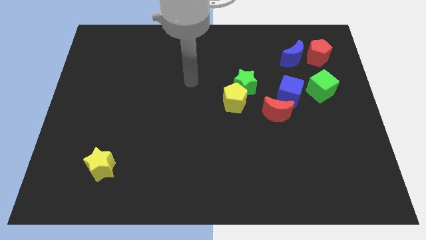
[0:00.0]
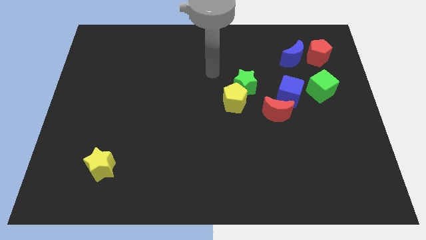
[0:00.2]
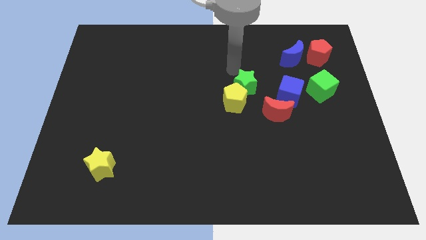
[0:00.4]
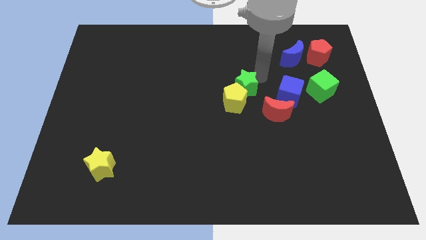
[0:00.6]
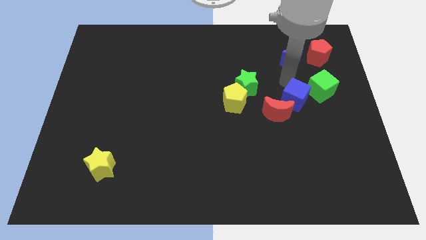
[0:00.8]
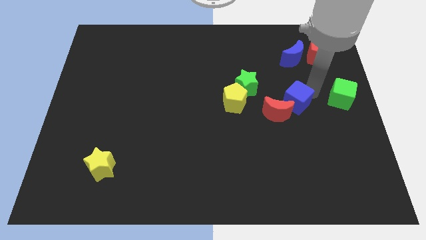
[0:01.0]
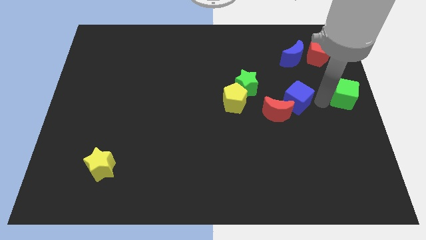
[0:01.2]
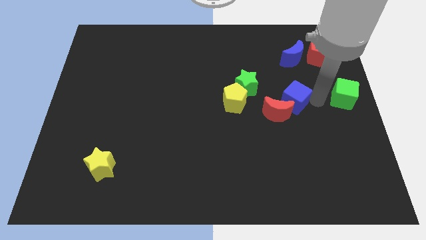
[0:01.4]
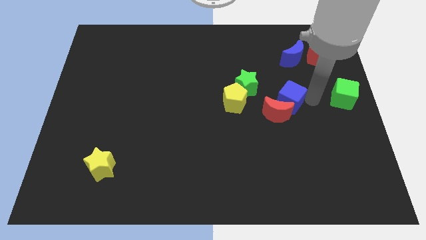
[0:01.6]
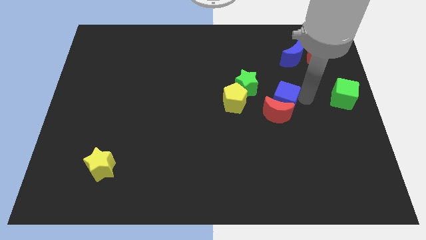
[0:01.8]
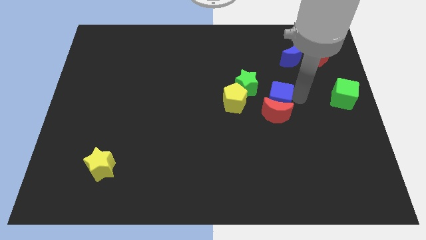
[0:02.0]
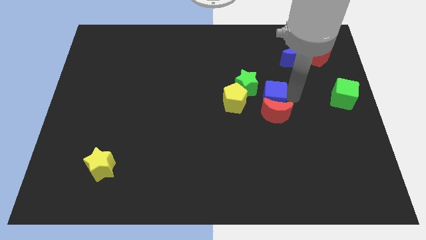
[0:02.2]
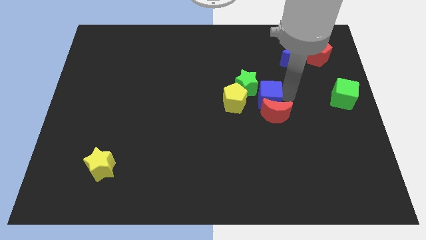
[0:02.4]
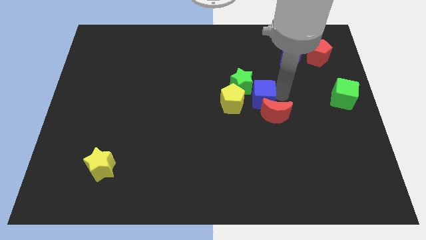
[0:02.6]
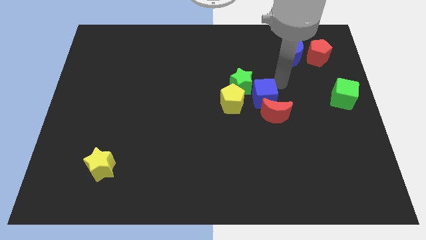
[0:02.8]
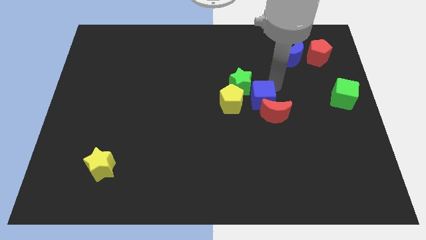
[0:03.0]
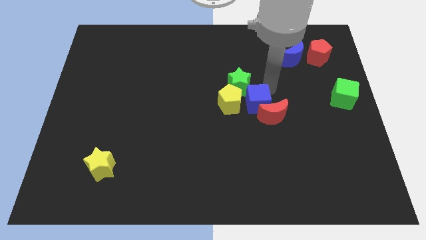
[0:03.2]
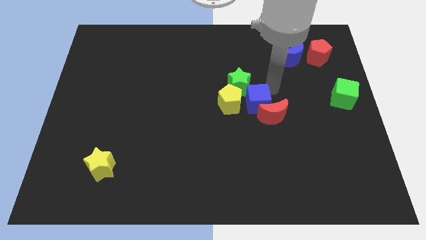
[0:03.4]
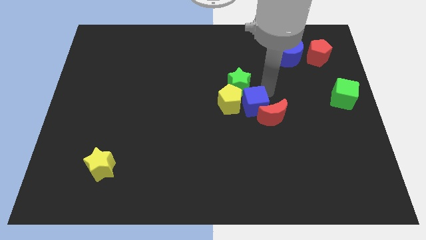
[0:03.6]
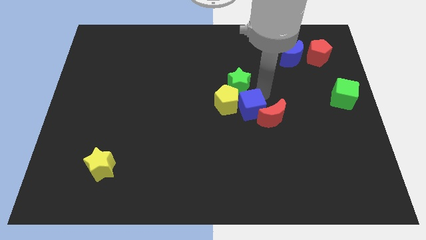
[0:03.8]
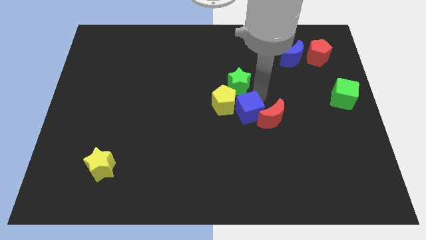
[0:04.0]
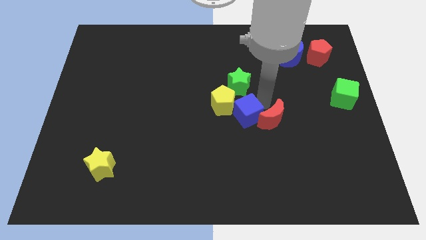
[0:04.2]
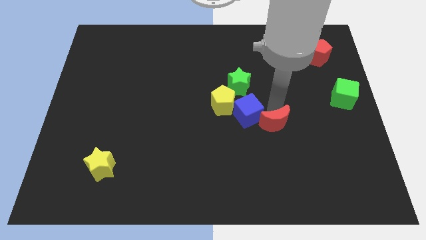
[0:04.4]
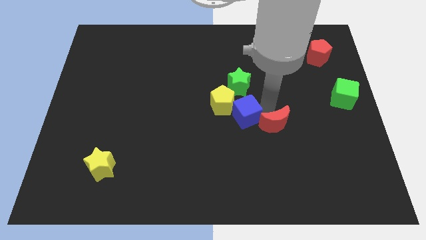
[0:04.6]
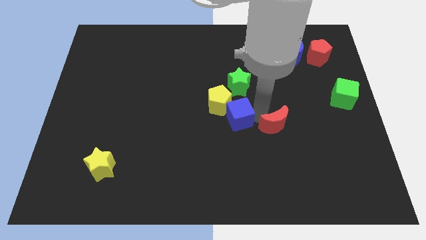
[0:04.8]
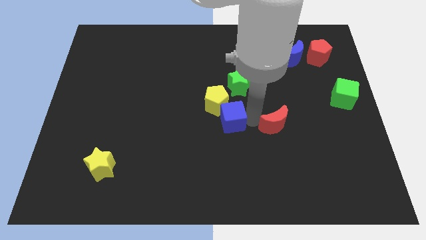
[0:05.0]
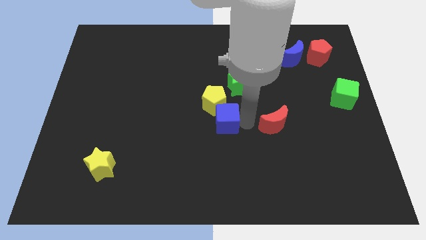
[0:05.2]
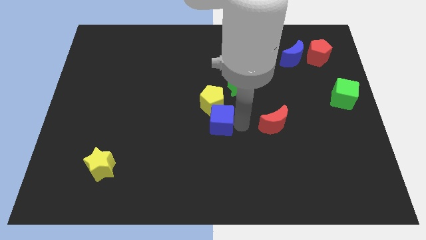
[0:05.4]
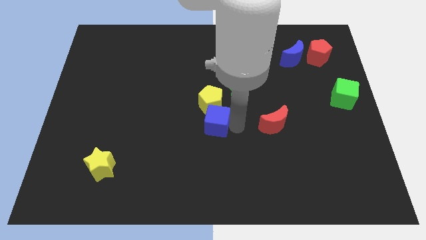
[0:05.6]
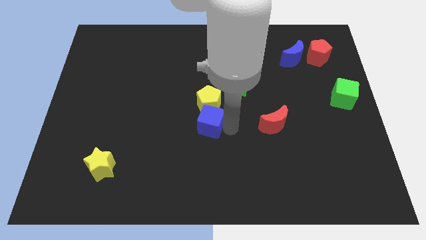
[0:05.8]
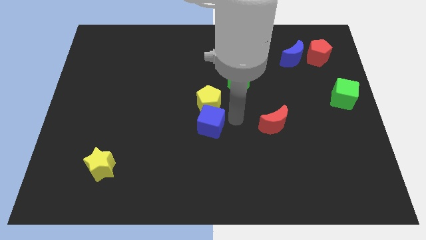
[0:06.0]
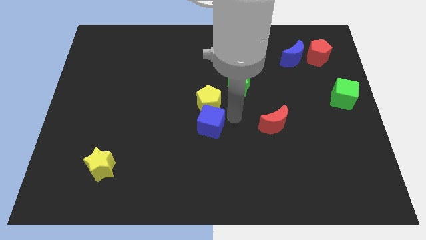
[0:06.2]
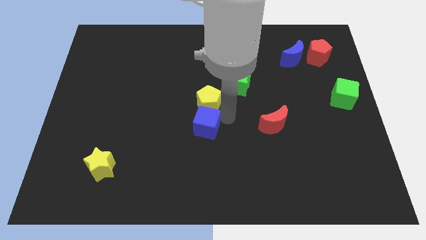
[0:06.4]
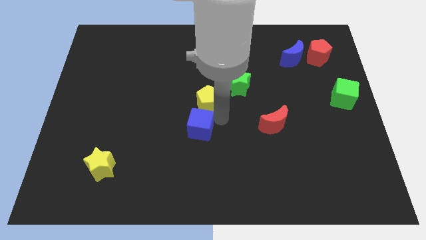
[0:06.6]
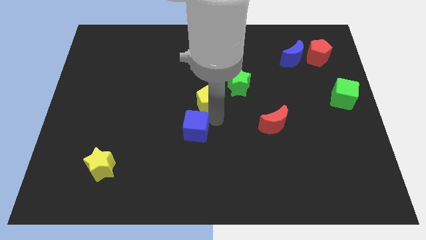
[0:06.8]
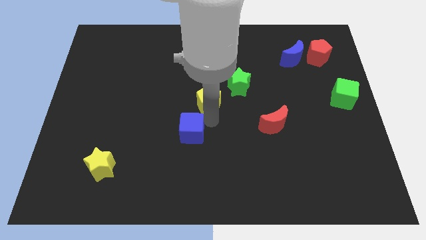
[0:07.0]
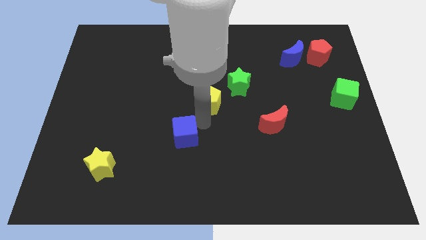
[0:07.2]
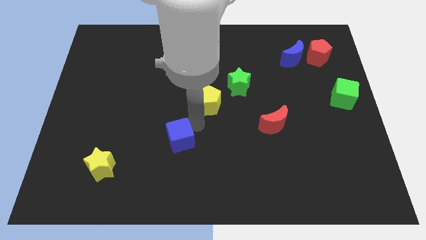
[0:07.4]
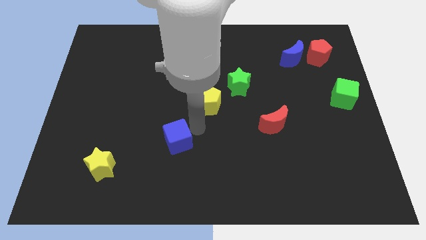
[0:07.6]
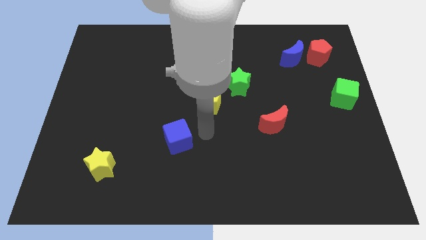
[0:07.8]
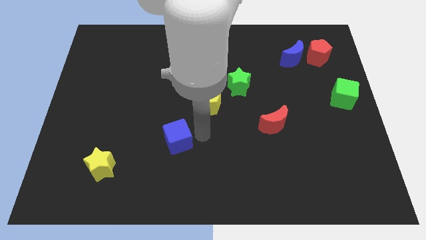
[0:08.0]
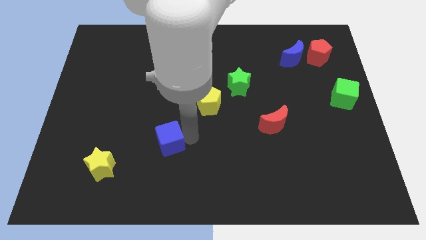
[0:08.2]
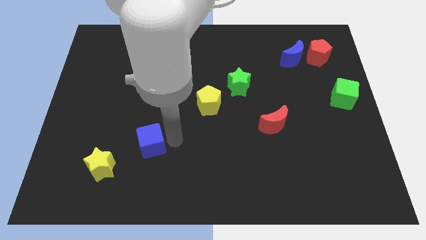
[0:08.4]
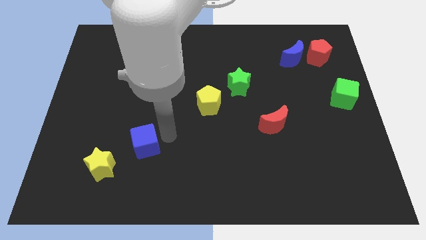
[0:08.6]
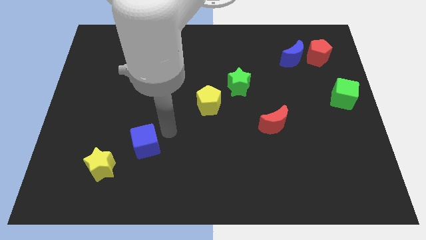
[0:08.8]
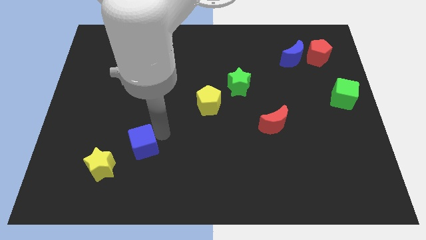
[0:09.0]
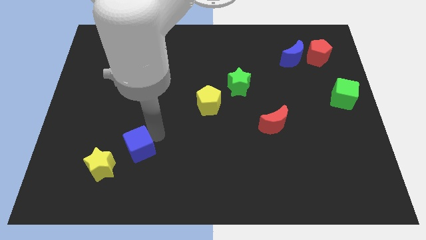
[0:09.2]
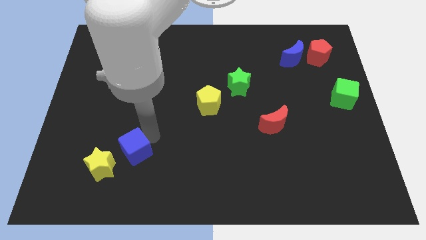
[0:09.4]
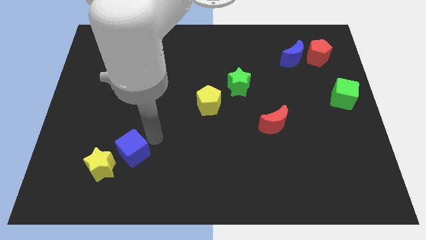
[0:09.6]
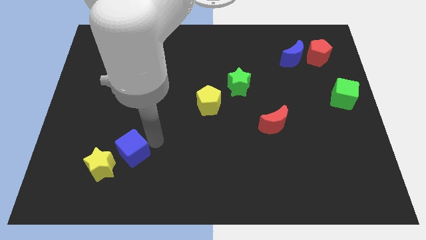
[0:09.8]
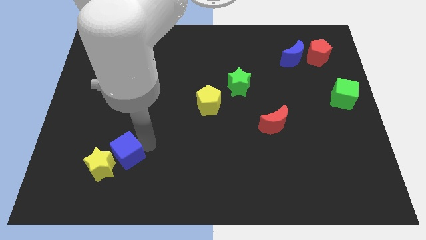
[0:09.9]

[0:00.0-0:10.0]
put the blue cube close to the yellow star

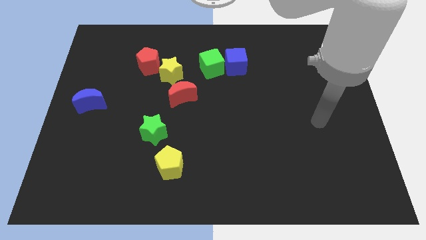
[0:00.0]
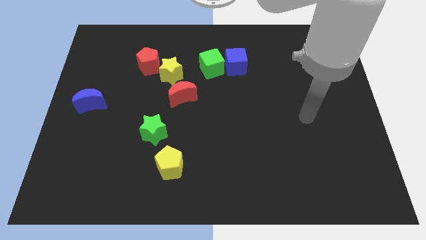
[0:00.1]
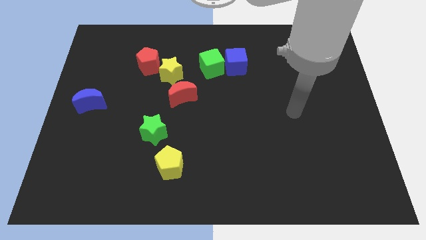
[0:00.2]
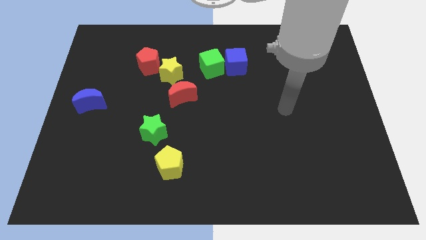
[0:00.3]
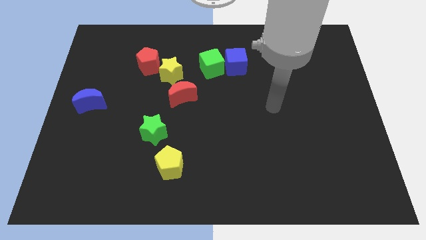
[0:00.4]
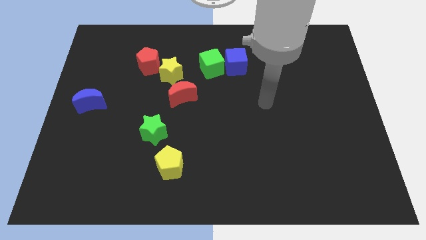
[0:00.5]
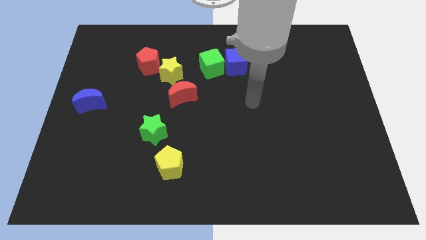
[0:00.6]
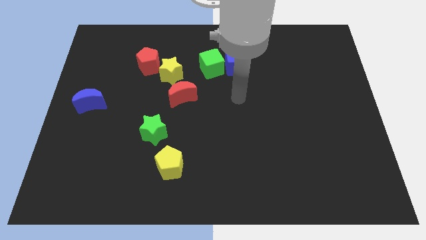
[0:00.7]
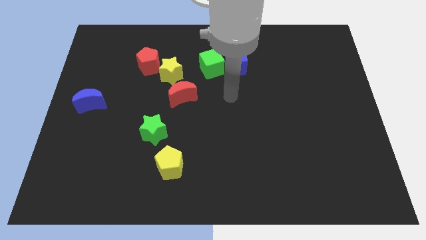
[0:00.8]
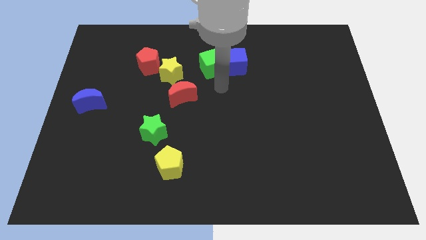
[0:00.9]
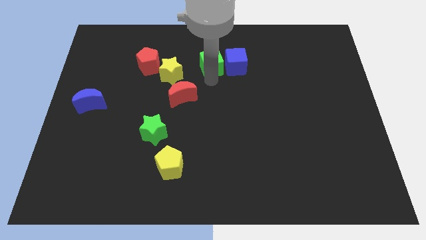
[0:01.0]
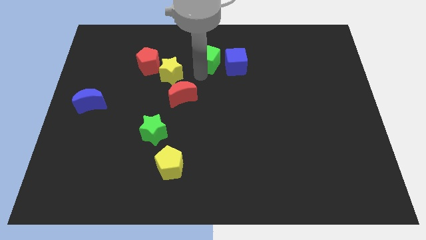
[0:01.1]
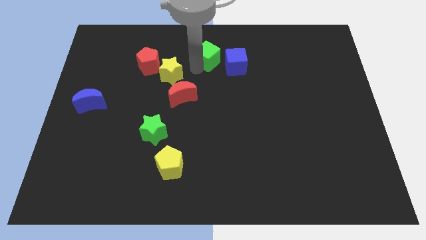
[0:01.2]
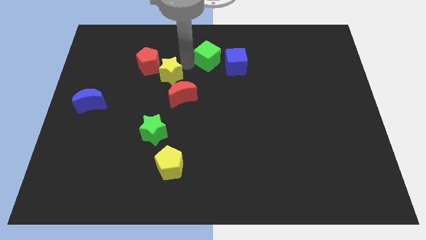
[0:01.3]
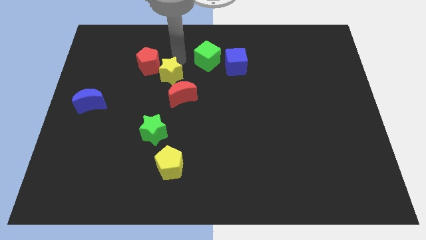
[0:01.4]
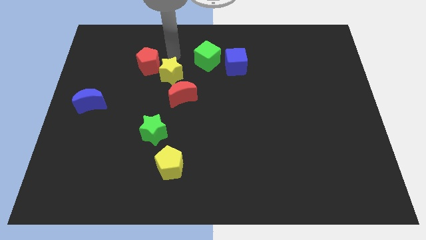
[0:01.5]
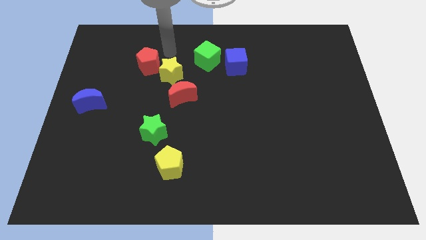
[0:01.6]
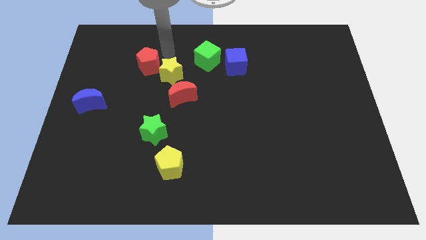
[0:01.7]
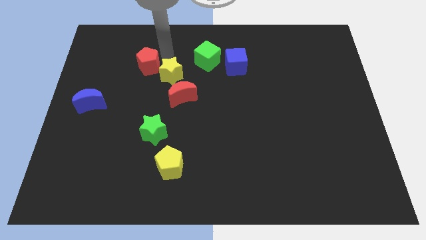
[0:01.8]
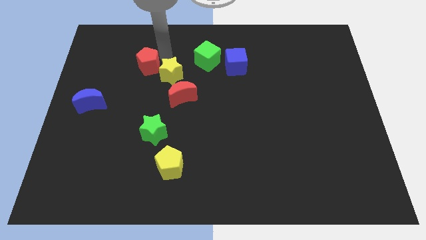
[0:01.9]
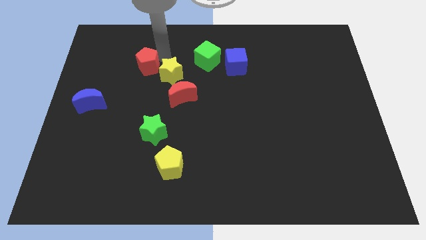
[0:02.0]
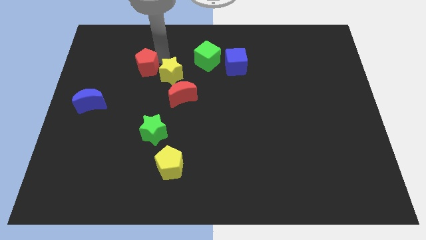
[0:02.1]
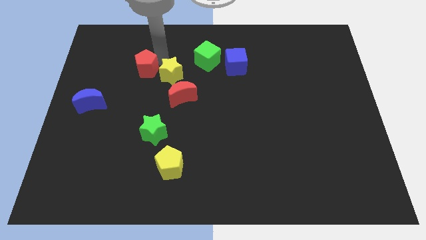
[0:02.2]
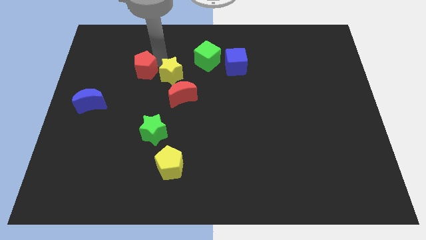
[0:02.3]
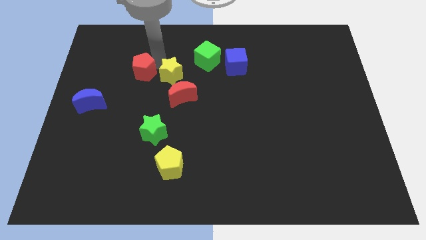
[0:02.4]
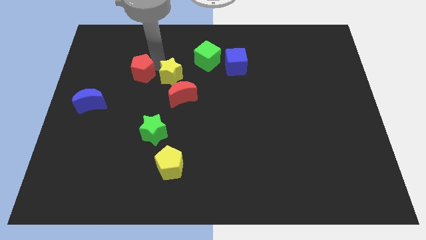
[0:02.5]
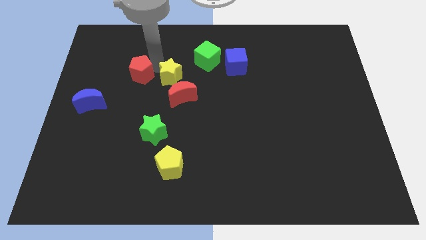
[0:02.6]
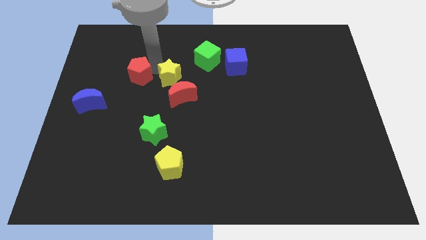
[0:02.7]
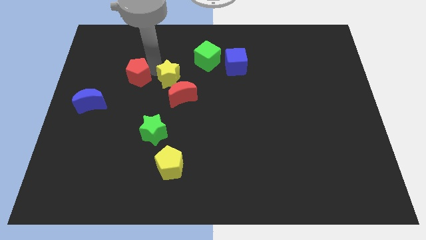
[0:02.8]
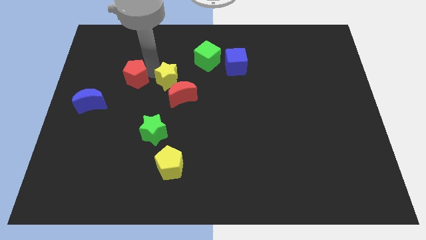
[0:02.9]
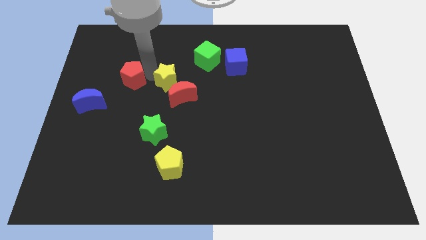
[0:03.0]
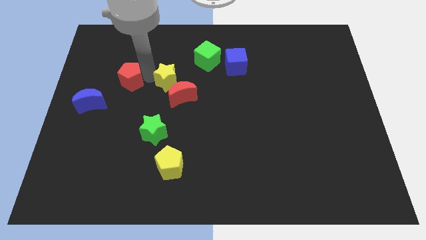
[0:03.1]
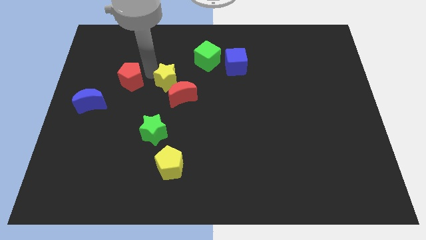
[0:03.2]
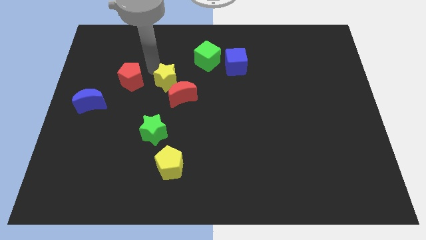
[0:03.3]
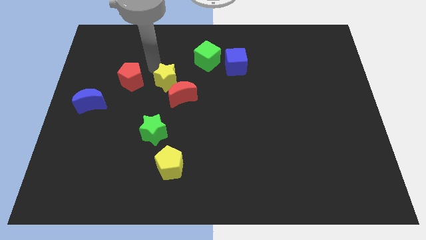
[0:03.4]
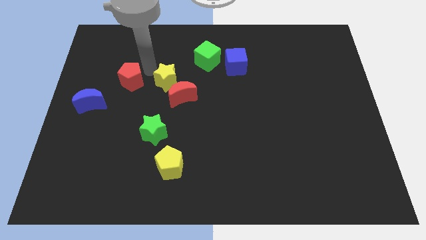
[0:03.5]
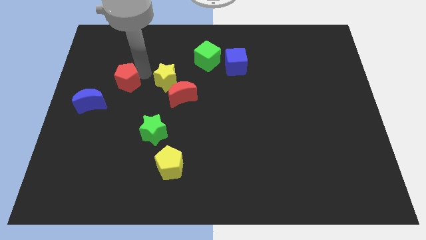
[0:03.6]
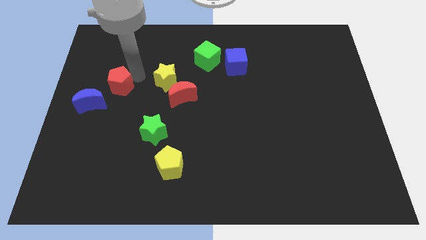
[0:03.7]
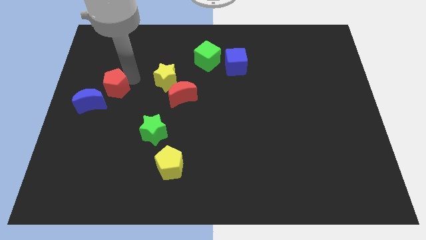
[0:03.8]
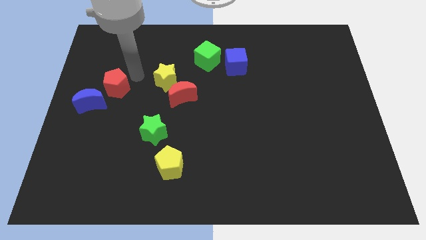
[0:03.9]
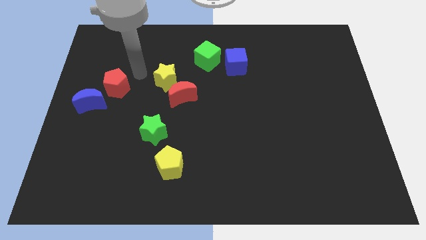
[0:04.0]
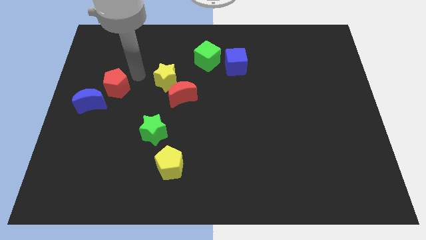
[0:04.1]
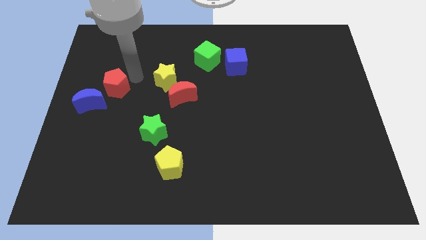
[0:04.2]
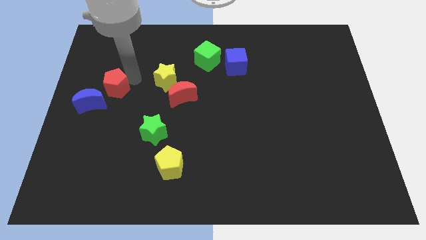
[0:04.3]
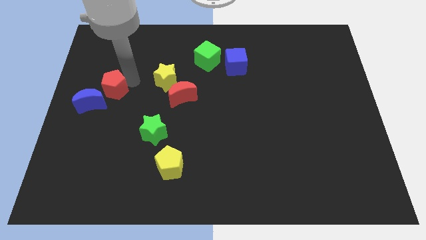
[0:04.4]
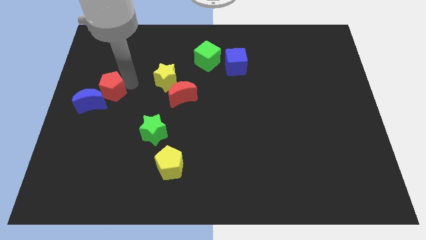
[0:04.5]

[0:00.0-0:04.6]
slide the red pentagon towards the blue moon
